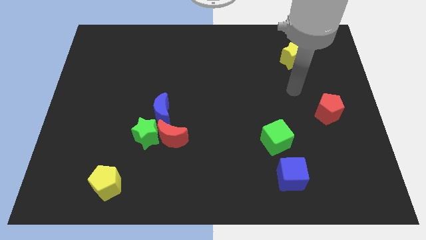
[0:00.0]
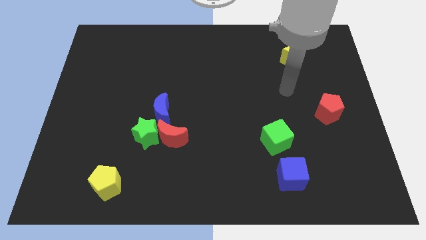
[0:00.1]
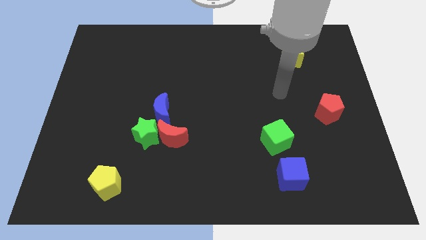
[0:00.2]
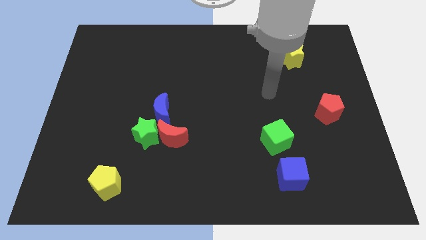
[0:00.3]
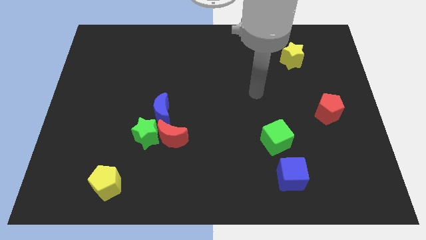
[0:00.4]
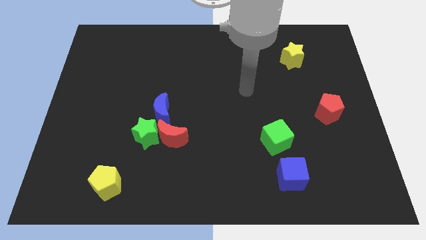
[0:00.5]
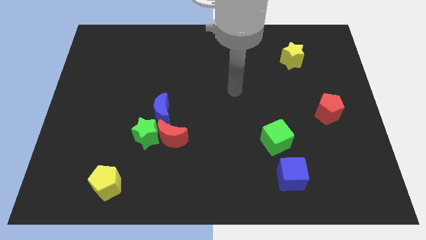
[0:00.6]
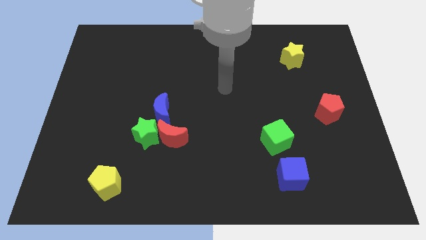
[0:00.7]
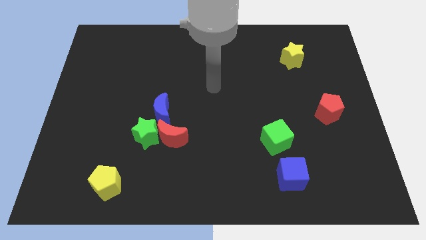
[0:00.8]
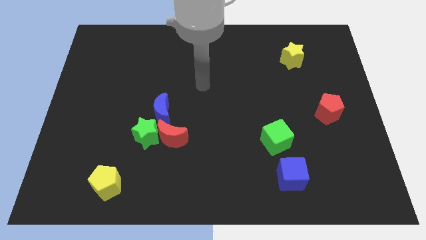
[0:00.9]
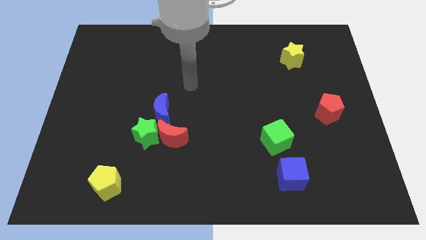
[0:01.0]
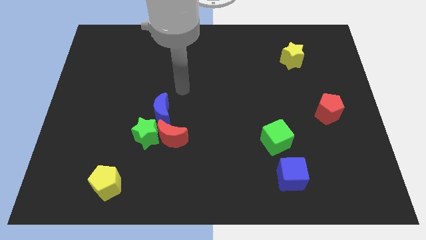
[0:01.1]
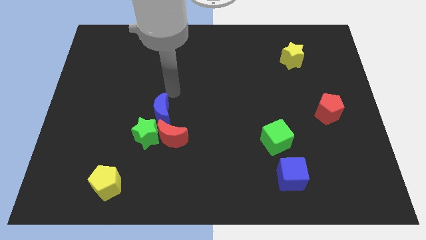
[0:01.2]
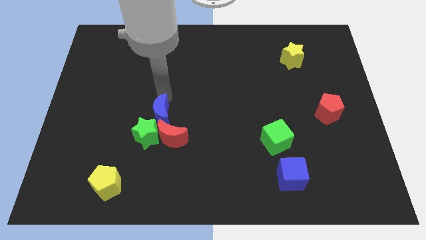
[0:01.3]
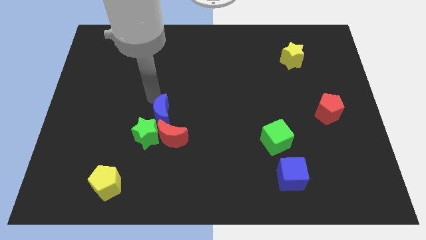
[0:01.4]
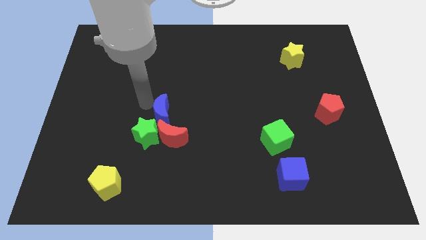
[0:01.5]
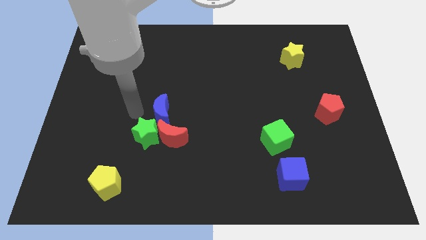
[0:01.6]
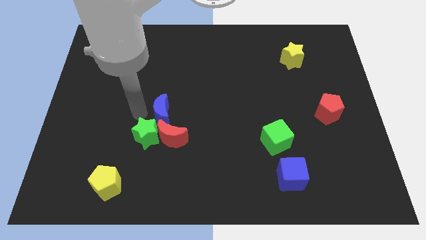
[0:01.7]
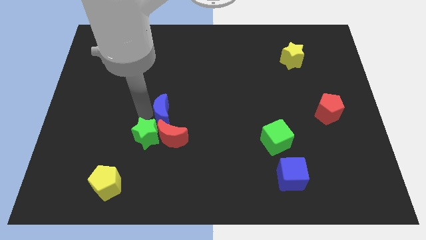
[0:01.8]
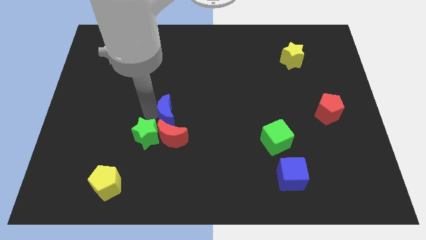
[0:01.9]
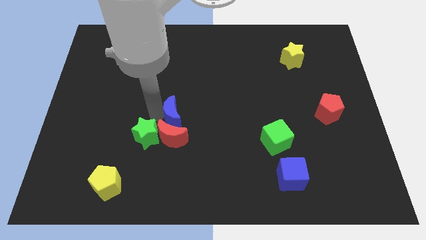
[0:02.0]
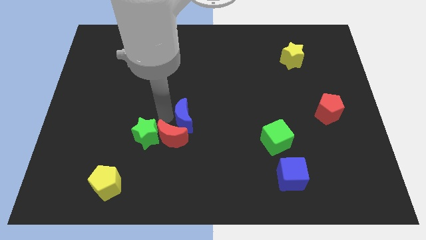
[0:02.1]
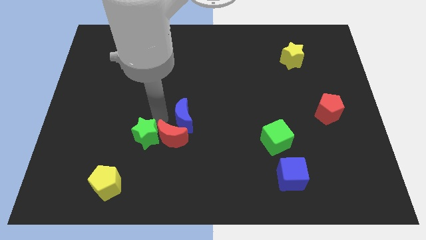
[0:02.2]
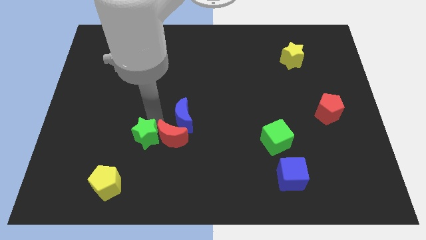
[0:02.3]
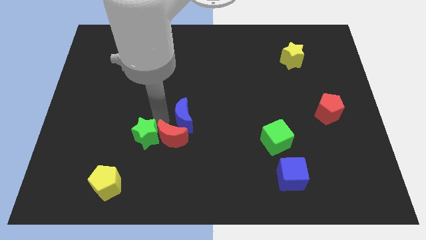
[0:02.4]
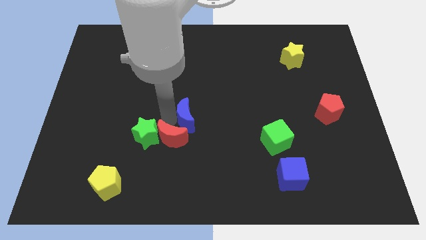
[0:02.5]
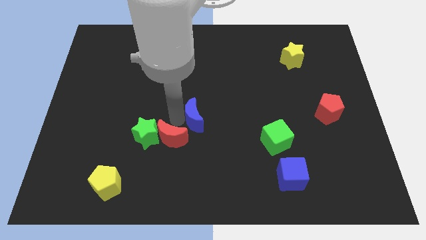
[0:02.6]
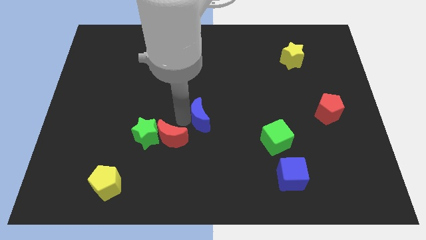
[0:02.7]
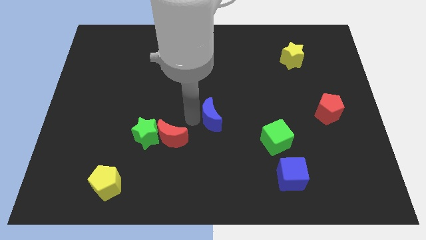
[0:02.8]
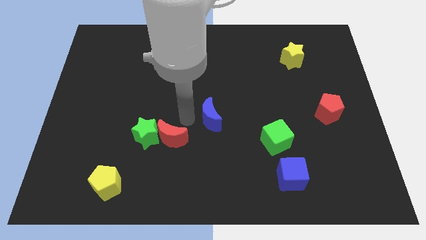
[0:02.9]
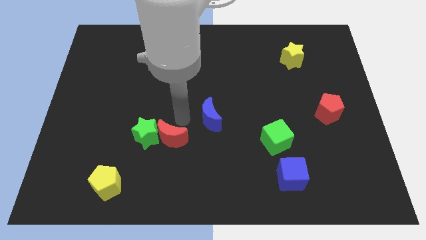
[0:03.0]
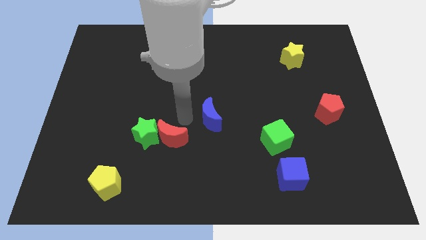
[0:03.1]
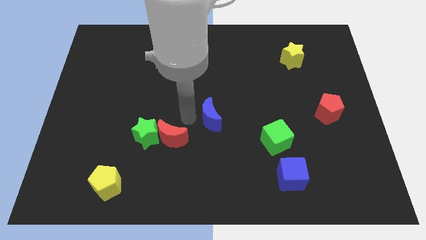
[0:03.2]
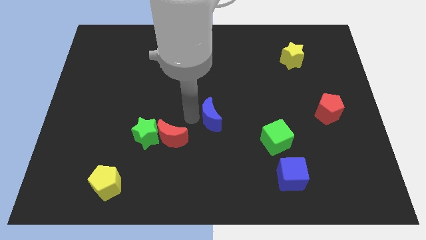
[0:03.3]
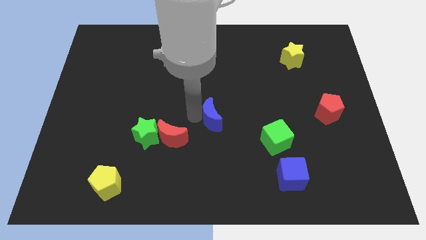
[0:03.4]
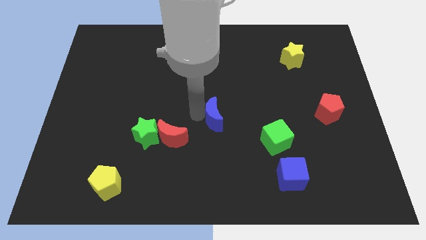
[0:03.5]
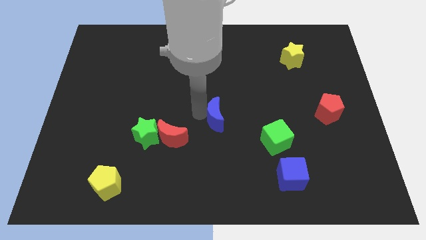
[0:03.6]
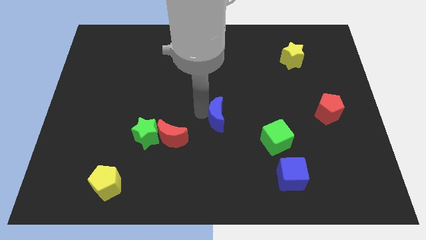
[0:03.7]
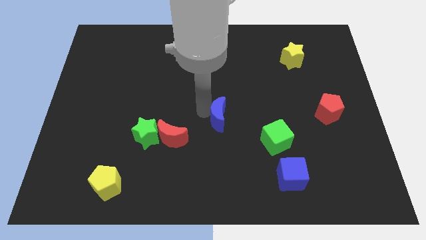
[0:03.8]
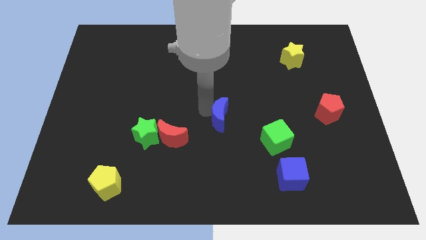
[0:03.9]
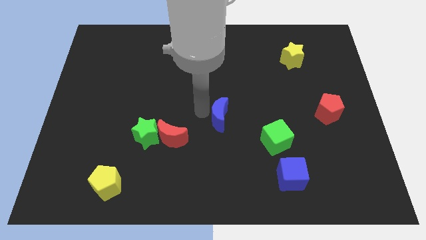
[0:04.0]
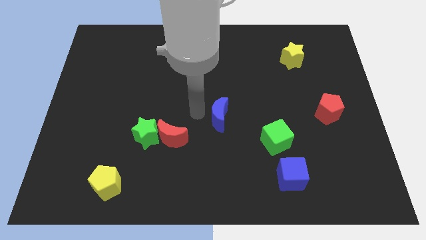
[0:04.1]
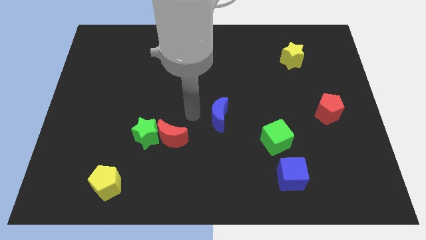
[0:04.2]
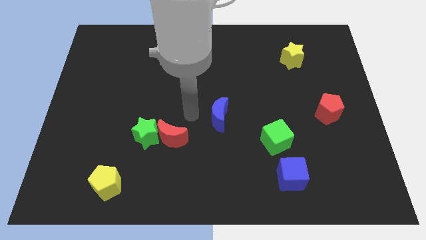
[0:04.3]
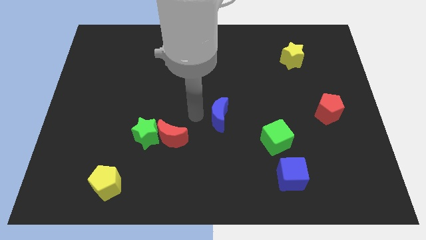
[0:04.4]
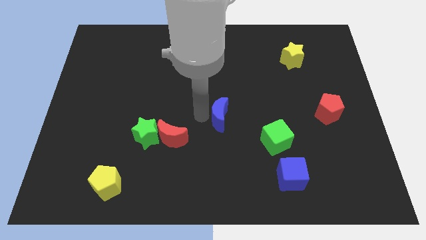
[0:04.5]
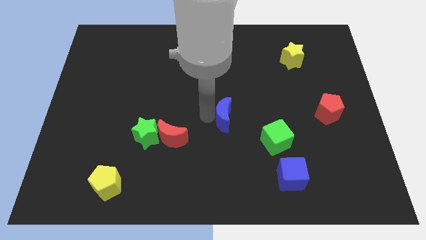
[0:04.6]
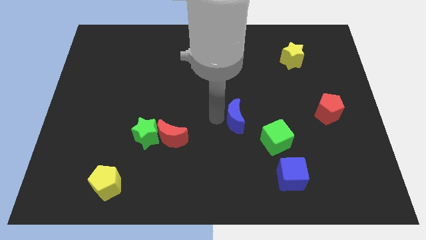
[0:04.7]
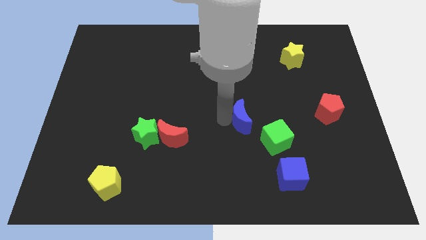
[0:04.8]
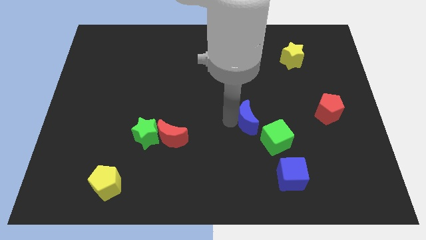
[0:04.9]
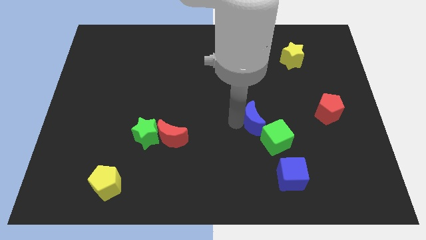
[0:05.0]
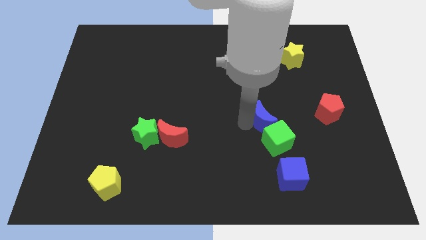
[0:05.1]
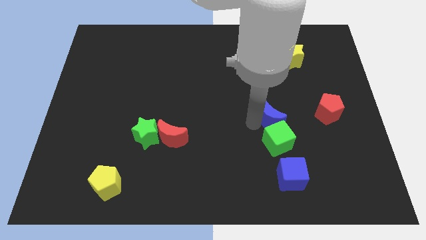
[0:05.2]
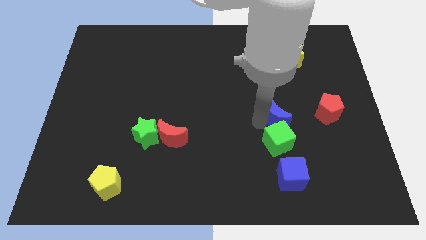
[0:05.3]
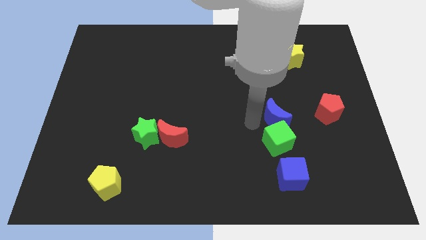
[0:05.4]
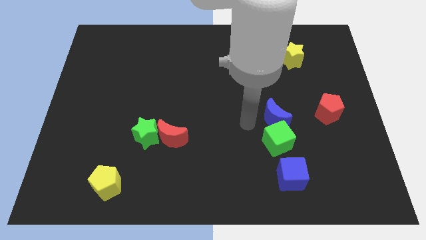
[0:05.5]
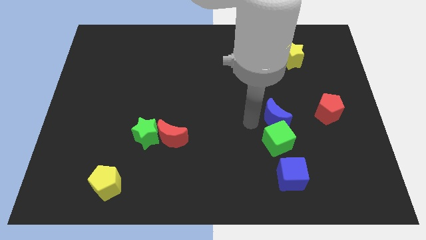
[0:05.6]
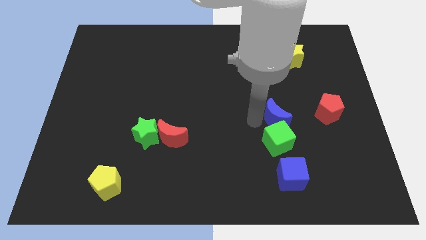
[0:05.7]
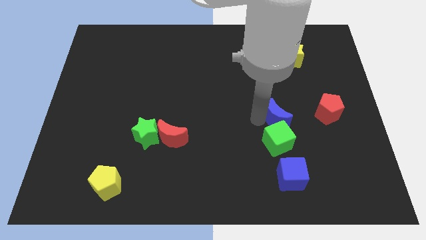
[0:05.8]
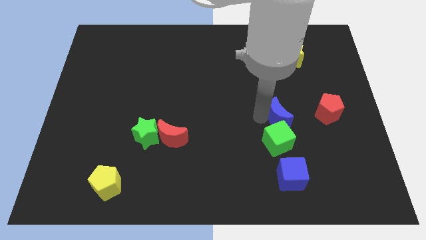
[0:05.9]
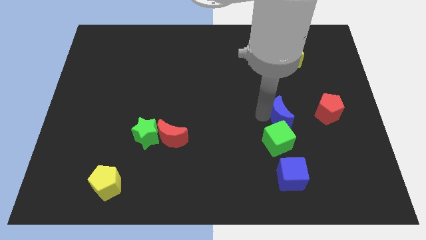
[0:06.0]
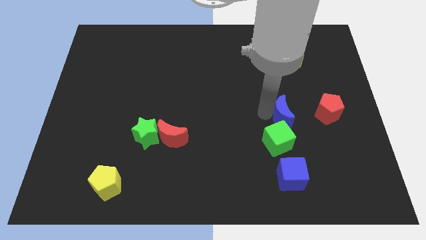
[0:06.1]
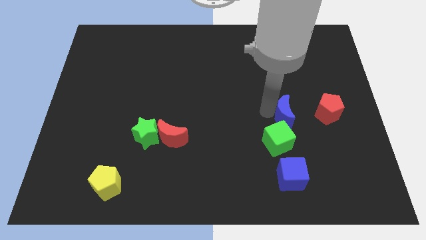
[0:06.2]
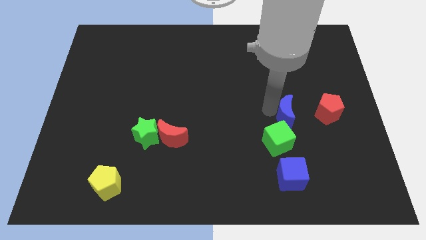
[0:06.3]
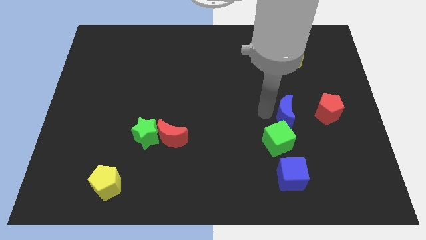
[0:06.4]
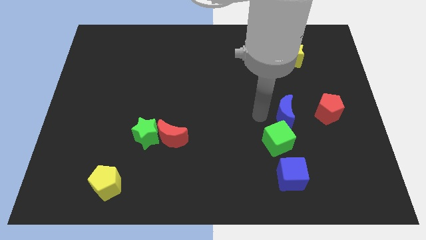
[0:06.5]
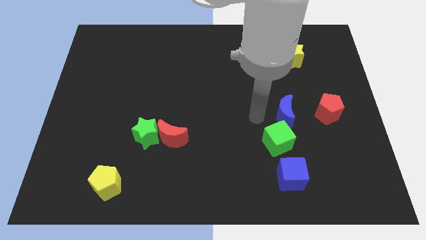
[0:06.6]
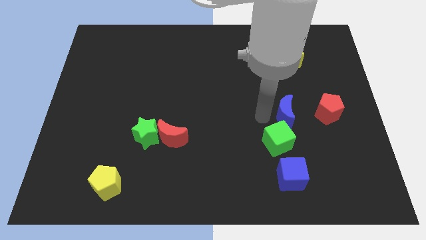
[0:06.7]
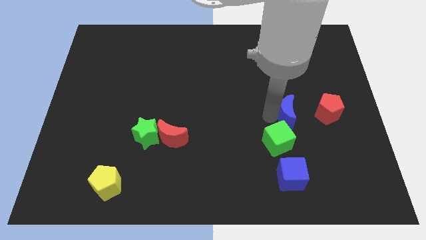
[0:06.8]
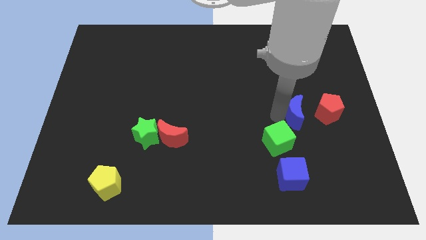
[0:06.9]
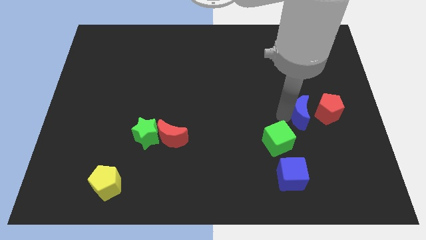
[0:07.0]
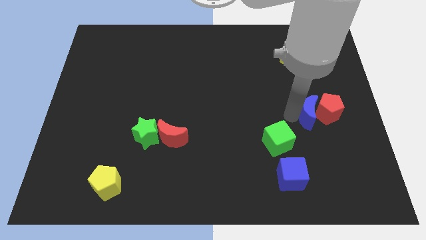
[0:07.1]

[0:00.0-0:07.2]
move the blue moon close to the red pentagon

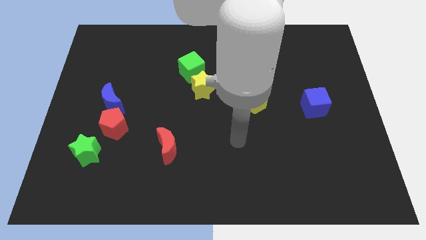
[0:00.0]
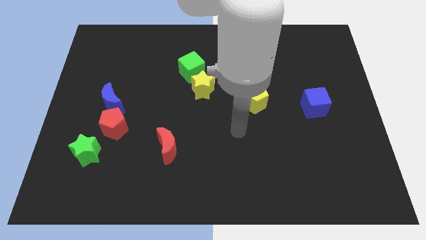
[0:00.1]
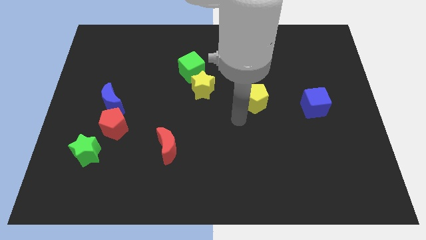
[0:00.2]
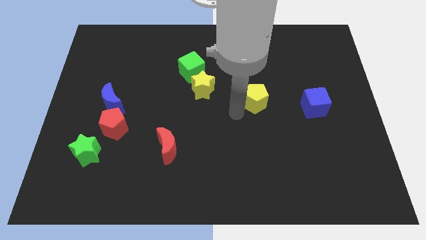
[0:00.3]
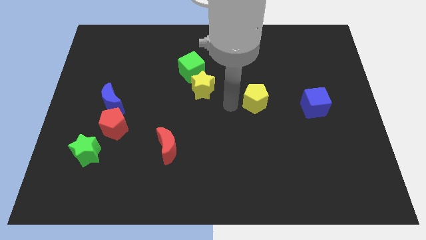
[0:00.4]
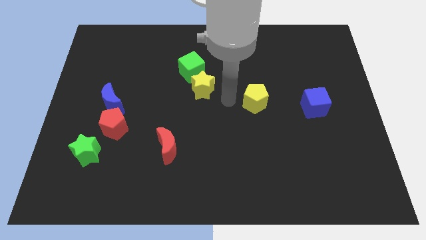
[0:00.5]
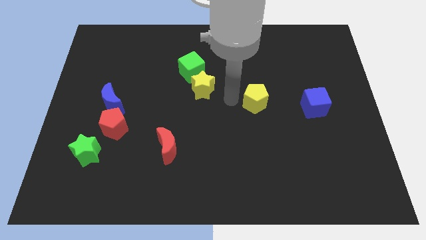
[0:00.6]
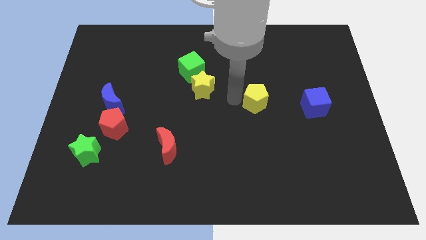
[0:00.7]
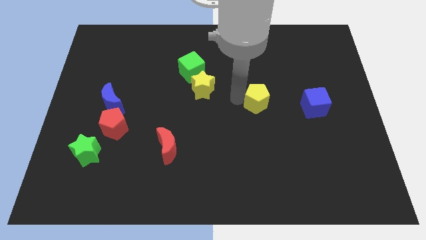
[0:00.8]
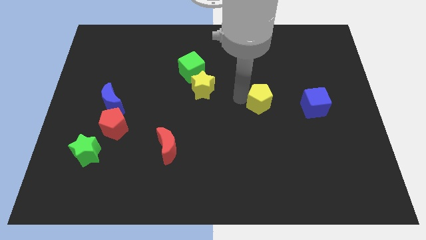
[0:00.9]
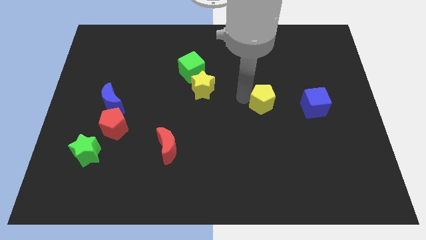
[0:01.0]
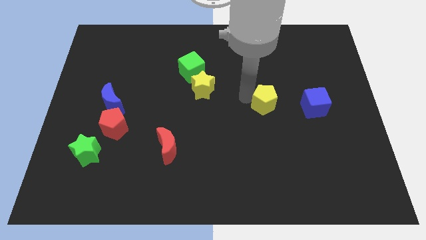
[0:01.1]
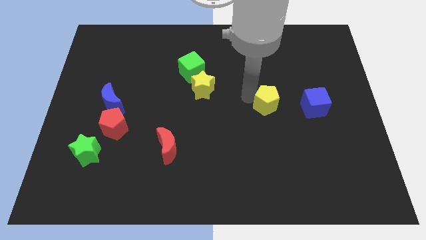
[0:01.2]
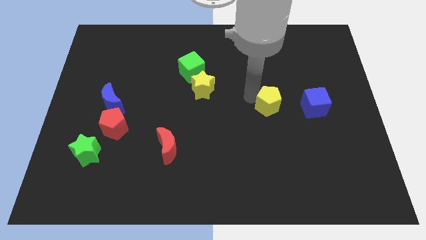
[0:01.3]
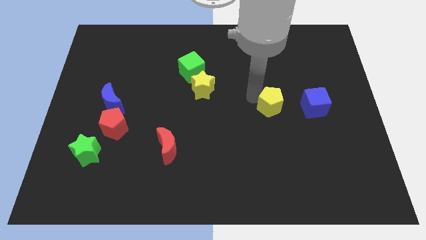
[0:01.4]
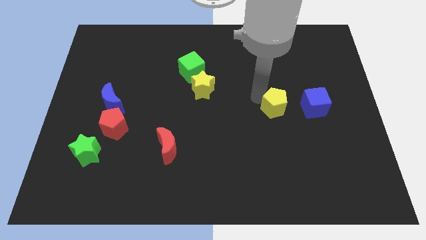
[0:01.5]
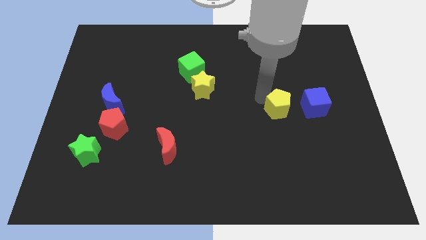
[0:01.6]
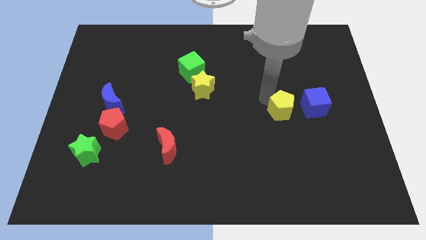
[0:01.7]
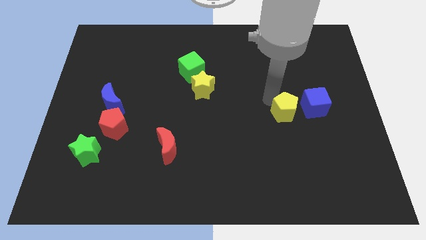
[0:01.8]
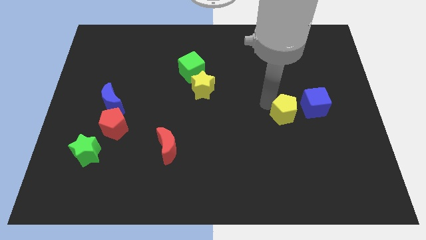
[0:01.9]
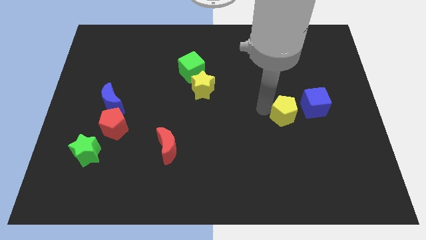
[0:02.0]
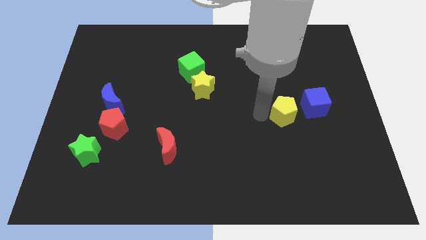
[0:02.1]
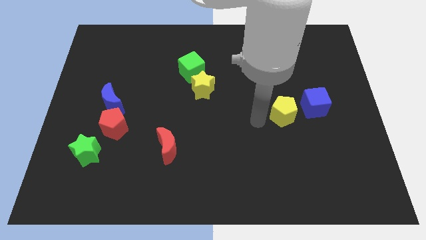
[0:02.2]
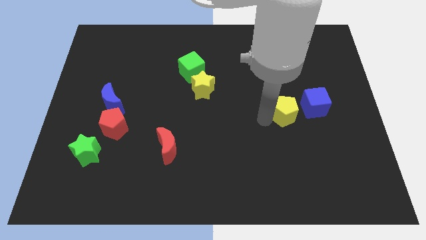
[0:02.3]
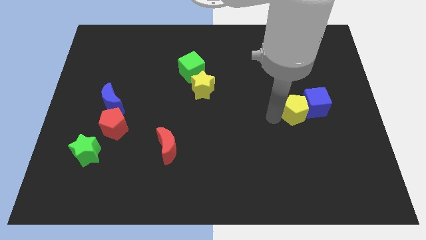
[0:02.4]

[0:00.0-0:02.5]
push the yellow pentagon towards the blue cube
